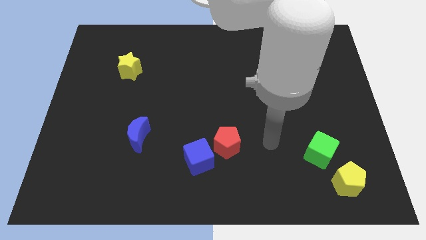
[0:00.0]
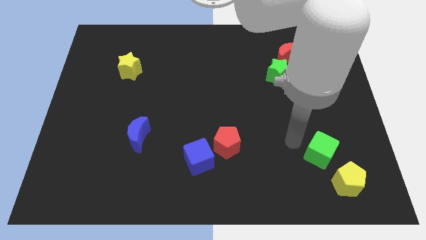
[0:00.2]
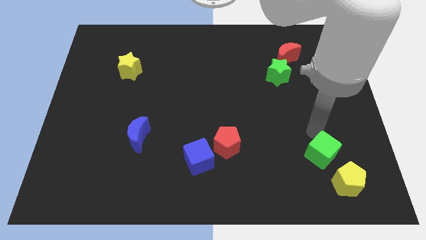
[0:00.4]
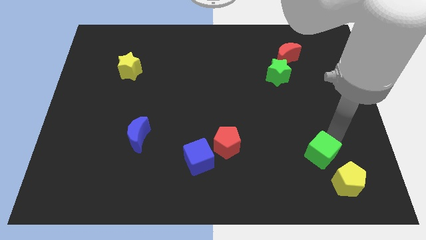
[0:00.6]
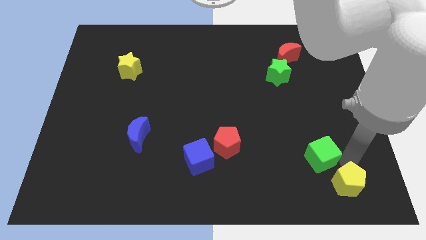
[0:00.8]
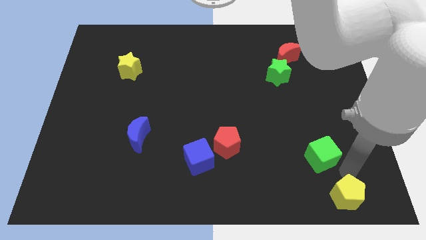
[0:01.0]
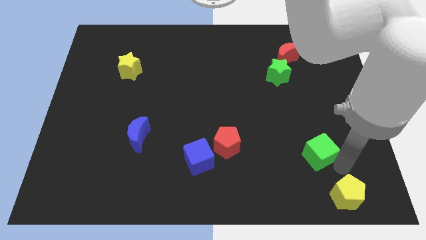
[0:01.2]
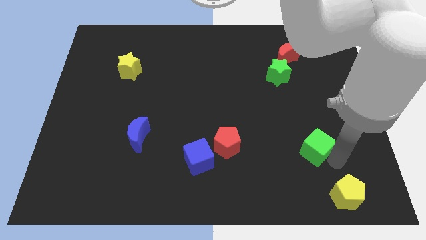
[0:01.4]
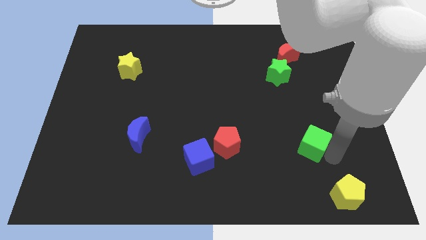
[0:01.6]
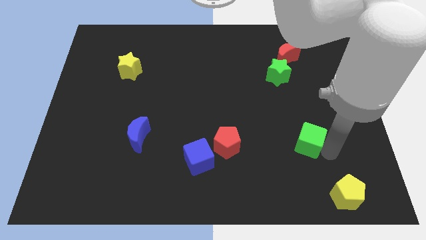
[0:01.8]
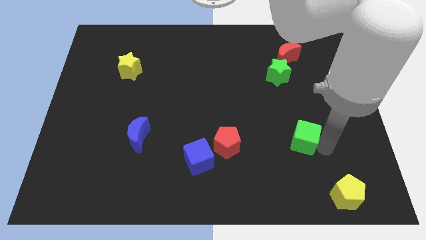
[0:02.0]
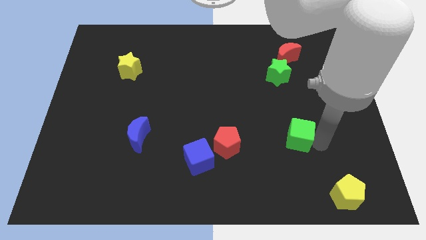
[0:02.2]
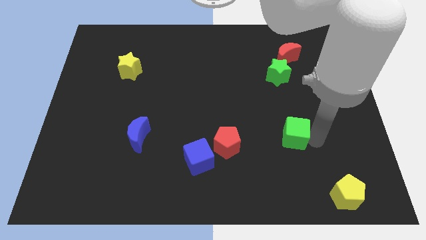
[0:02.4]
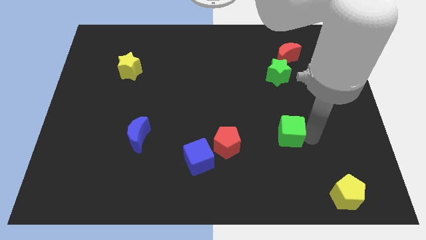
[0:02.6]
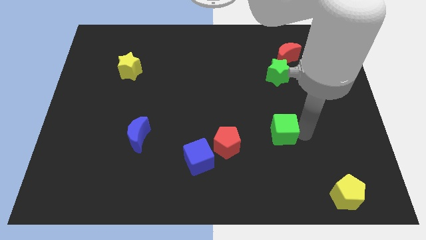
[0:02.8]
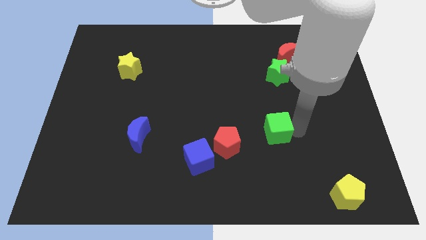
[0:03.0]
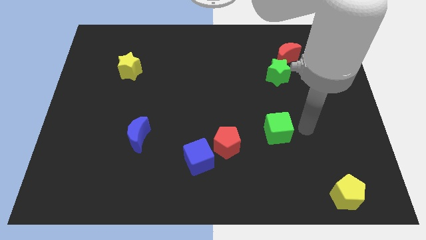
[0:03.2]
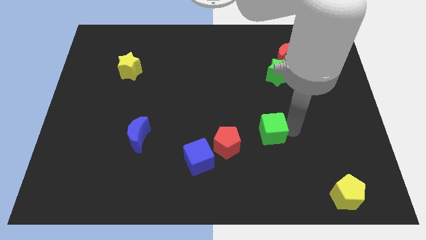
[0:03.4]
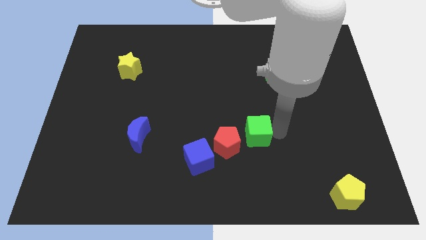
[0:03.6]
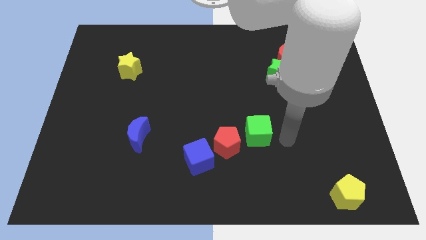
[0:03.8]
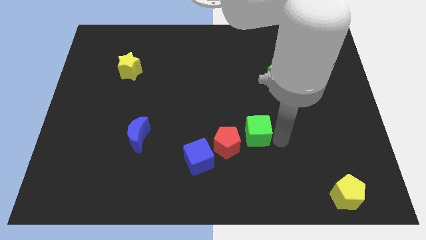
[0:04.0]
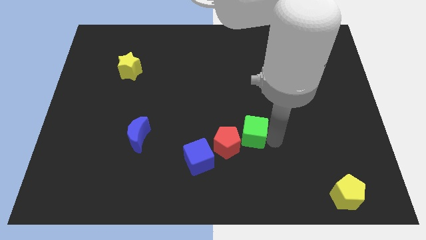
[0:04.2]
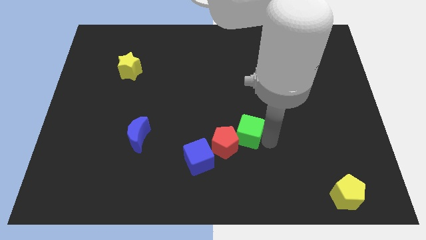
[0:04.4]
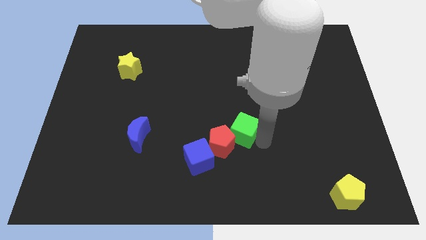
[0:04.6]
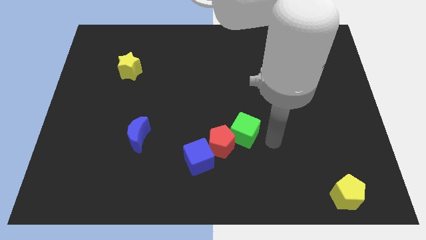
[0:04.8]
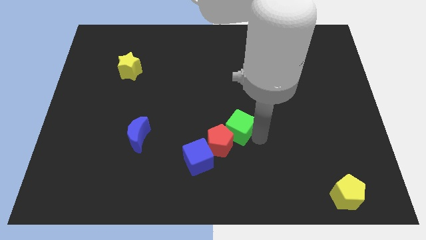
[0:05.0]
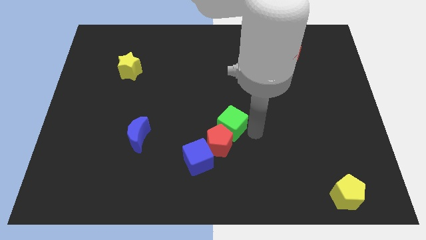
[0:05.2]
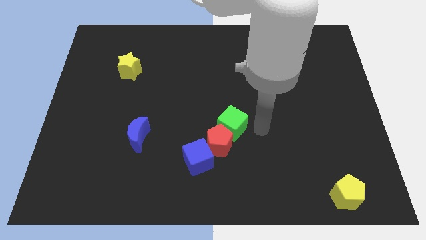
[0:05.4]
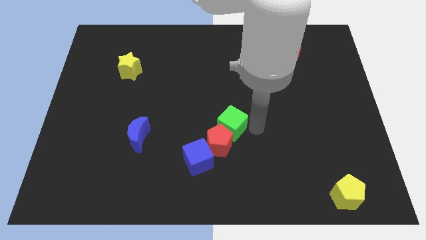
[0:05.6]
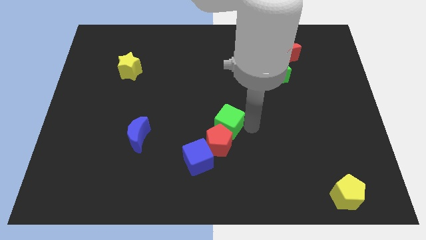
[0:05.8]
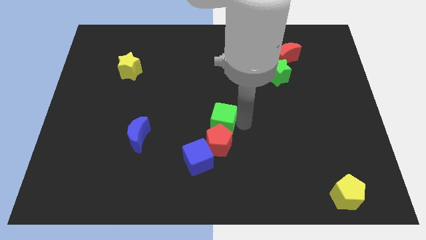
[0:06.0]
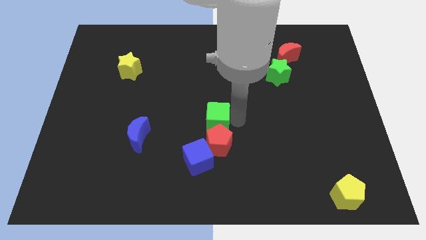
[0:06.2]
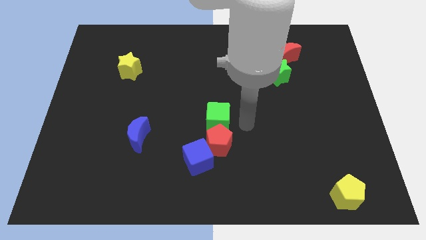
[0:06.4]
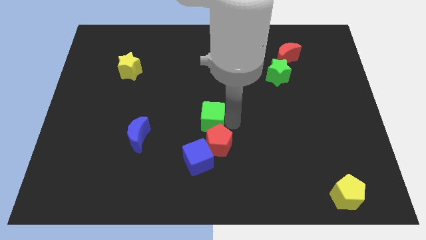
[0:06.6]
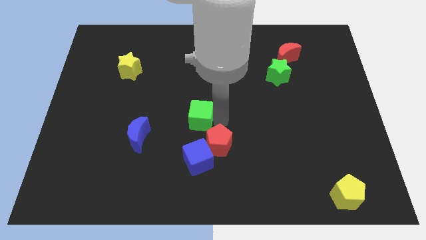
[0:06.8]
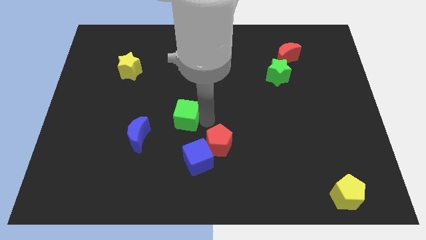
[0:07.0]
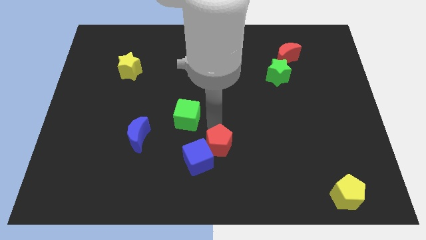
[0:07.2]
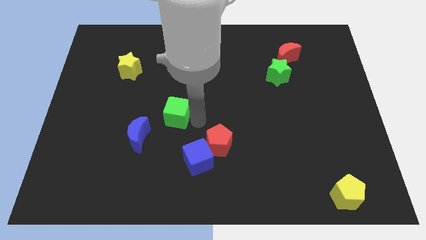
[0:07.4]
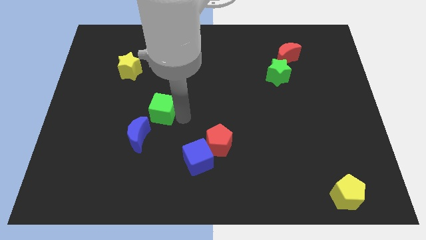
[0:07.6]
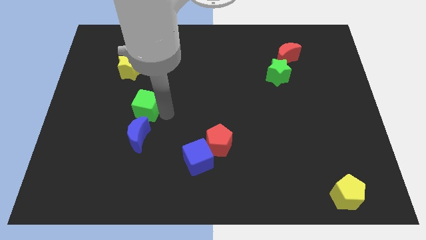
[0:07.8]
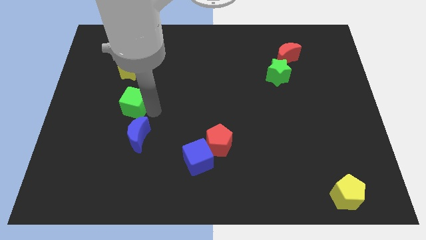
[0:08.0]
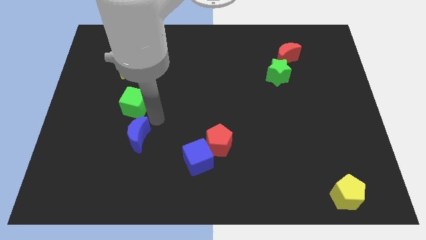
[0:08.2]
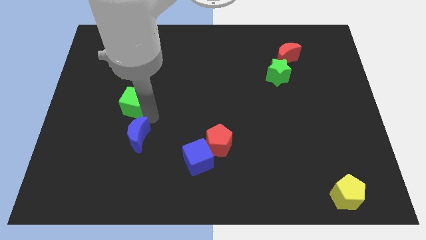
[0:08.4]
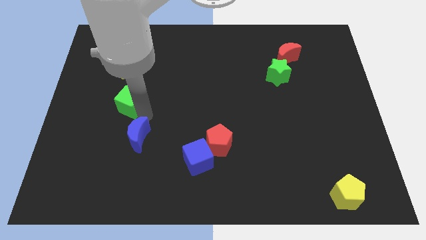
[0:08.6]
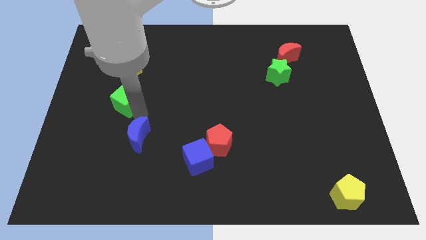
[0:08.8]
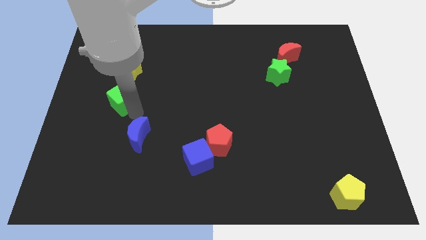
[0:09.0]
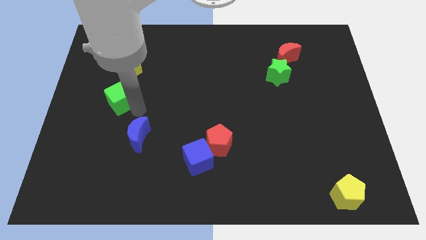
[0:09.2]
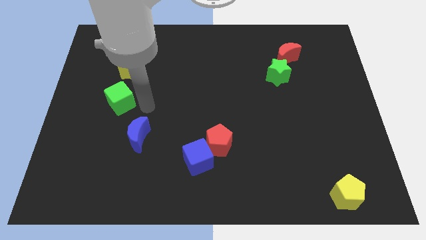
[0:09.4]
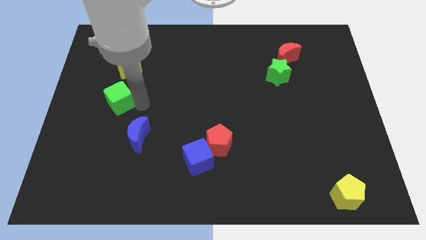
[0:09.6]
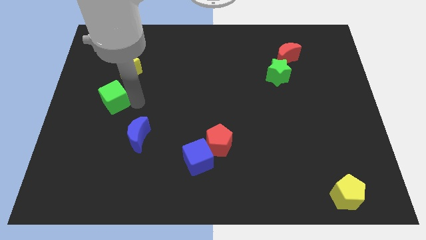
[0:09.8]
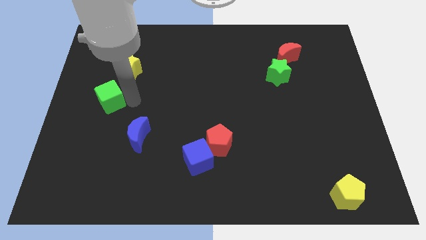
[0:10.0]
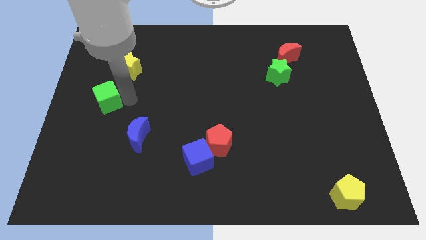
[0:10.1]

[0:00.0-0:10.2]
push the green cube to the center left

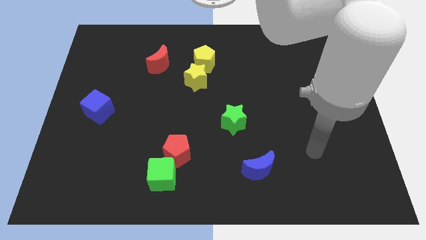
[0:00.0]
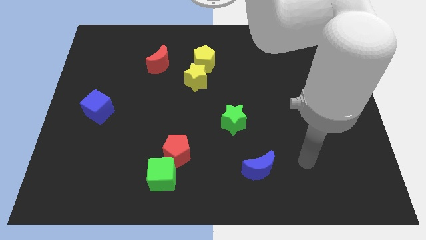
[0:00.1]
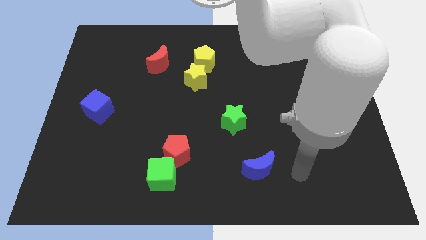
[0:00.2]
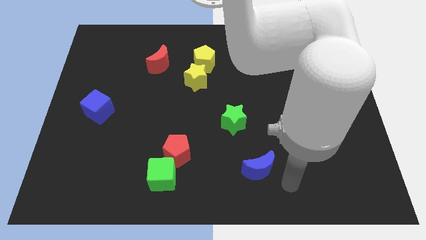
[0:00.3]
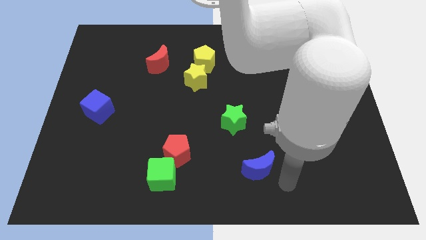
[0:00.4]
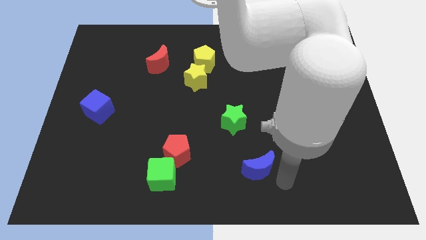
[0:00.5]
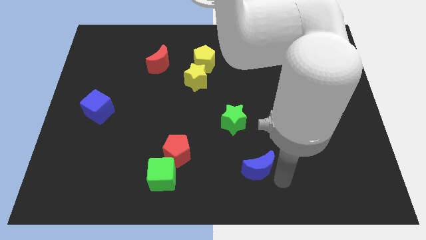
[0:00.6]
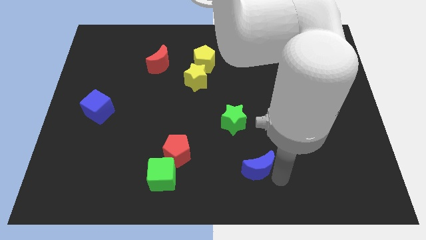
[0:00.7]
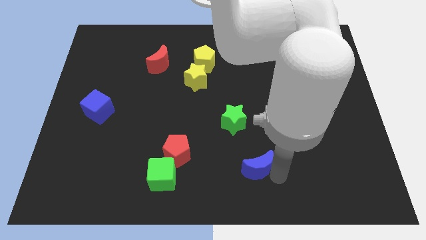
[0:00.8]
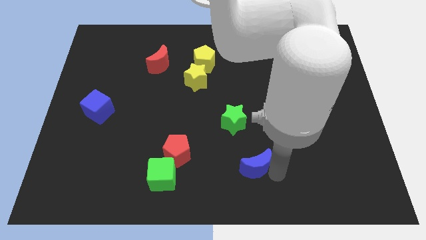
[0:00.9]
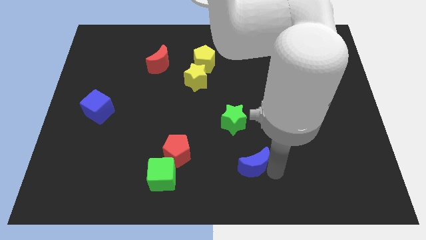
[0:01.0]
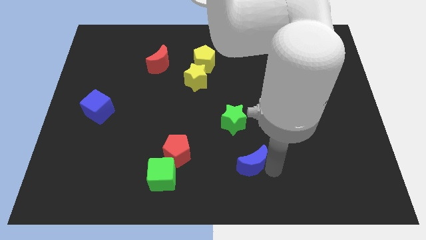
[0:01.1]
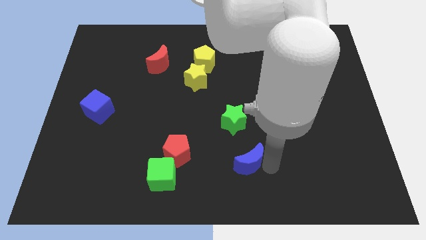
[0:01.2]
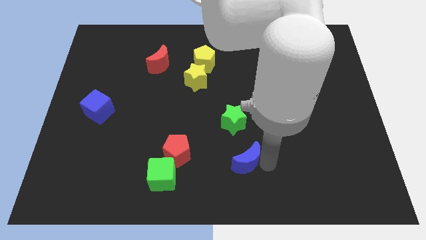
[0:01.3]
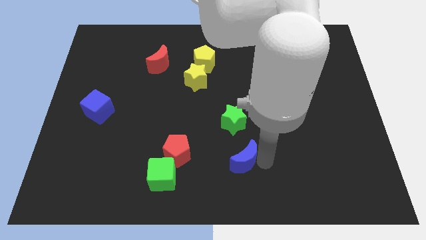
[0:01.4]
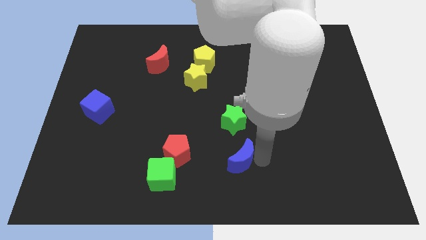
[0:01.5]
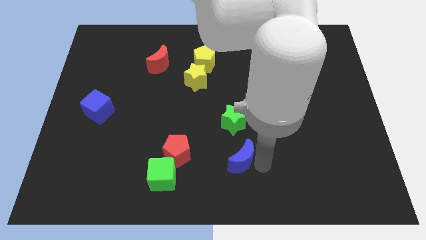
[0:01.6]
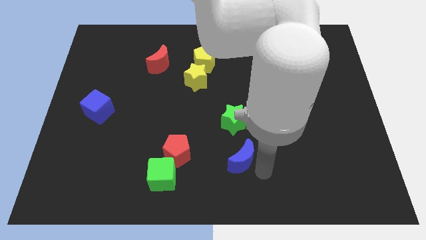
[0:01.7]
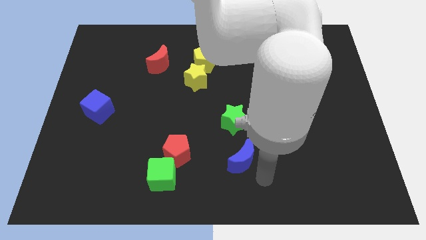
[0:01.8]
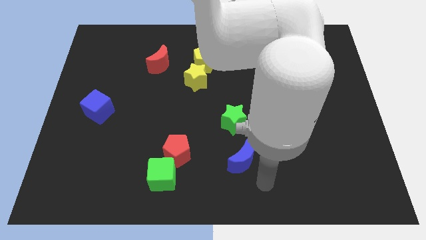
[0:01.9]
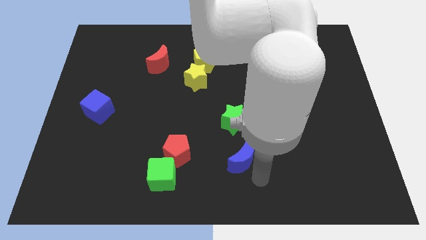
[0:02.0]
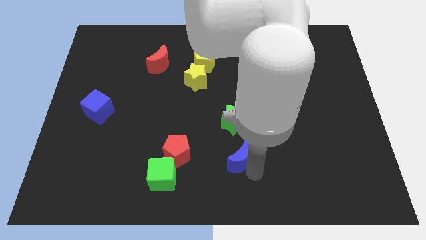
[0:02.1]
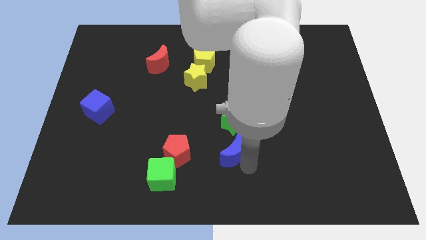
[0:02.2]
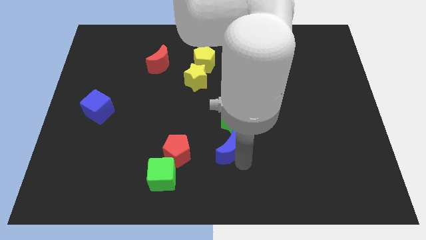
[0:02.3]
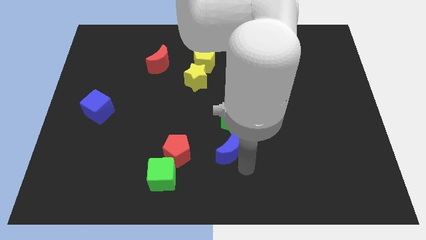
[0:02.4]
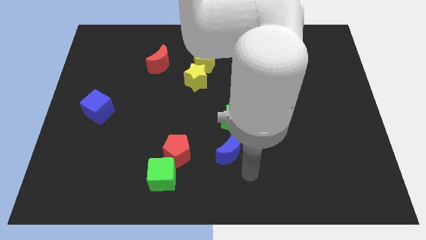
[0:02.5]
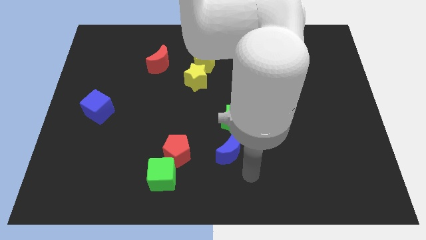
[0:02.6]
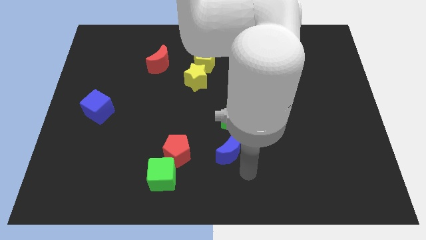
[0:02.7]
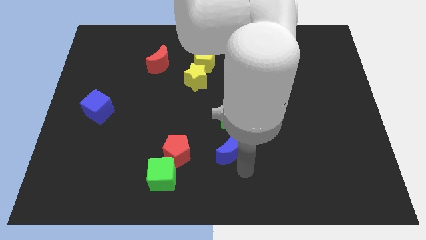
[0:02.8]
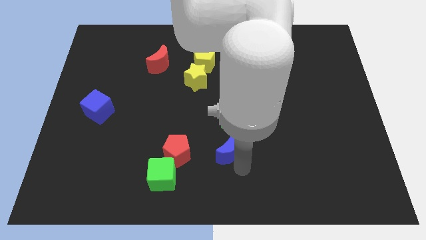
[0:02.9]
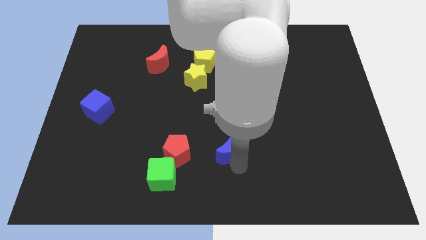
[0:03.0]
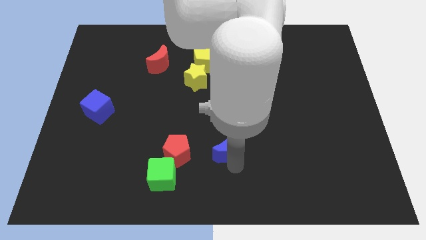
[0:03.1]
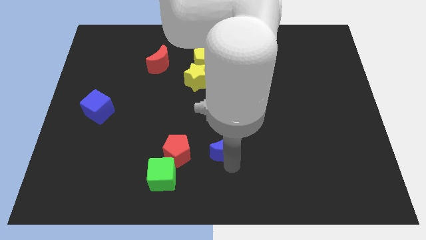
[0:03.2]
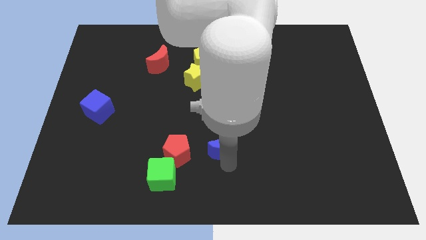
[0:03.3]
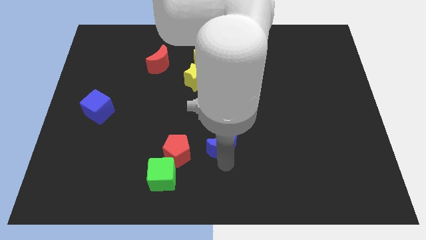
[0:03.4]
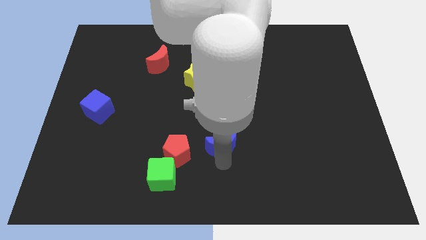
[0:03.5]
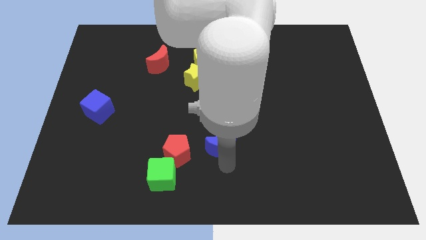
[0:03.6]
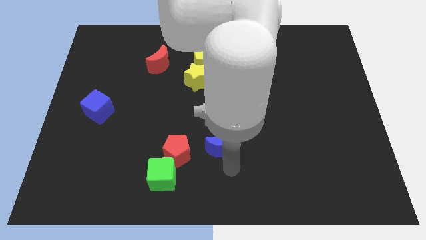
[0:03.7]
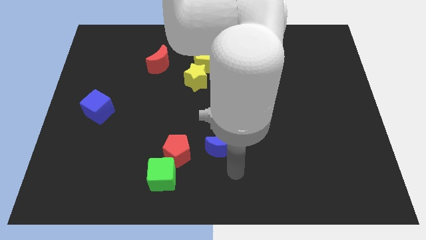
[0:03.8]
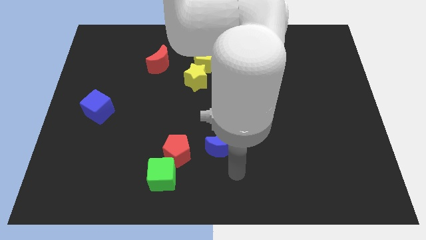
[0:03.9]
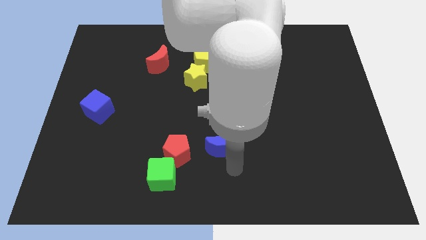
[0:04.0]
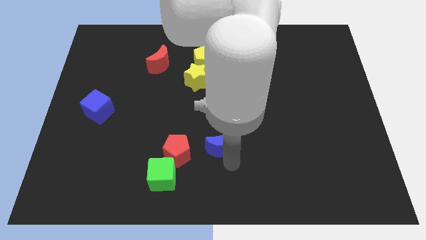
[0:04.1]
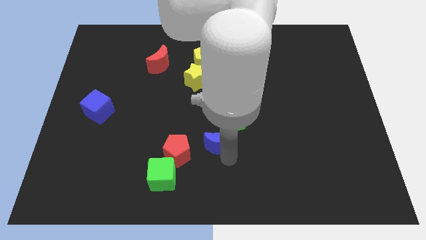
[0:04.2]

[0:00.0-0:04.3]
move the blue moon to the center of the board
